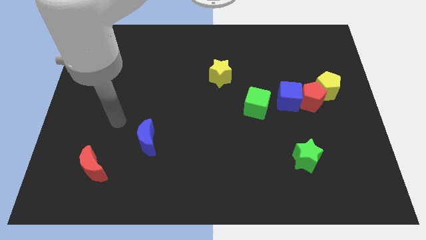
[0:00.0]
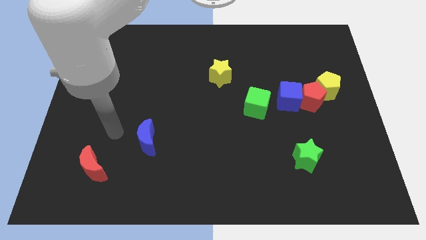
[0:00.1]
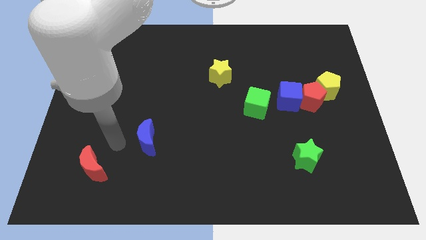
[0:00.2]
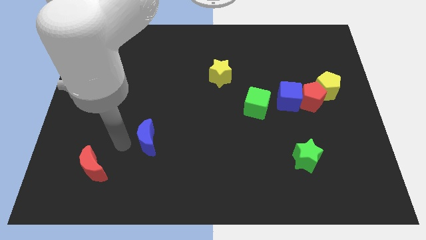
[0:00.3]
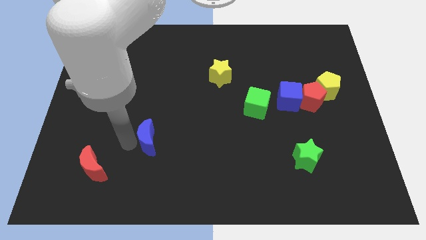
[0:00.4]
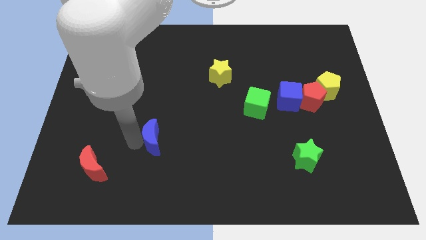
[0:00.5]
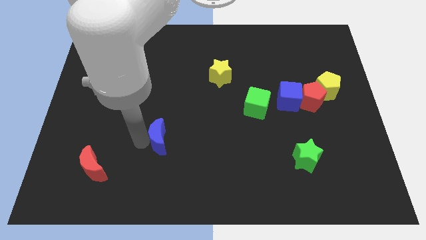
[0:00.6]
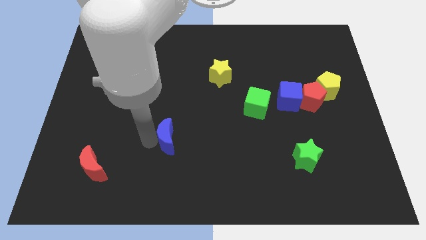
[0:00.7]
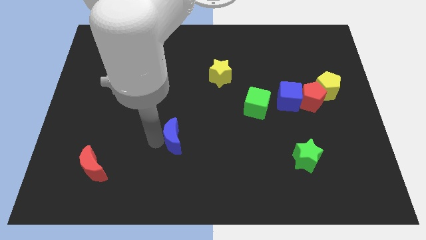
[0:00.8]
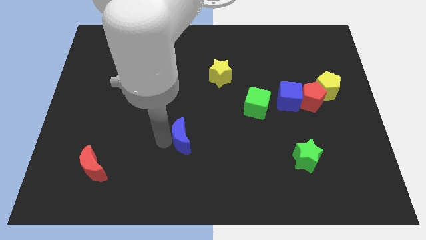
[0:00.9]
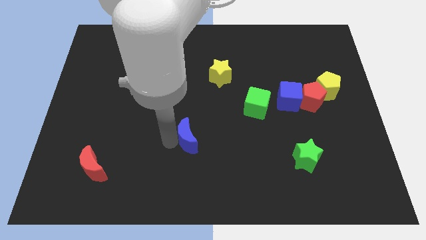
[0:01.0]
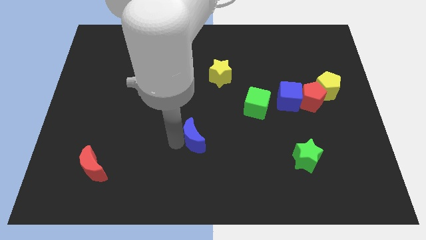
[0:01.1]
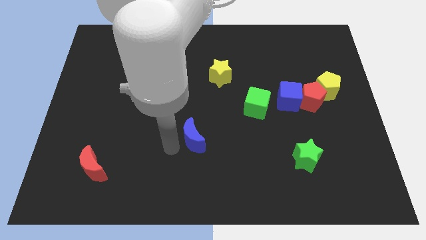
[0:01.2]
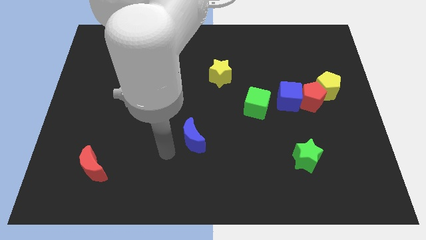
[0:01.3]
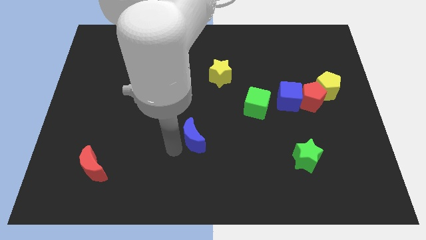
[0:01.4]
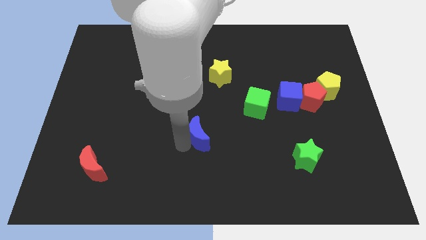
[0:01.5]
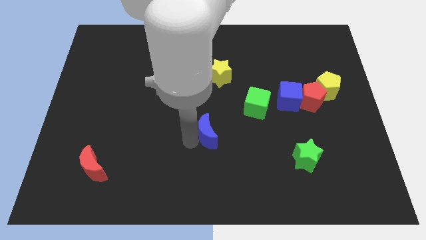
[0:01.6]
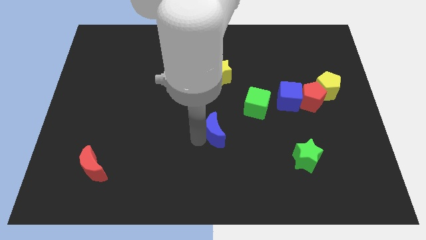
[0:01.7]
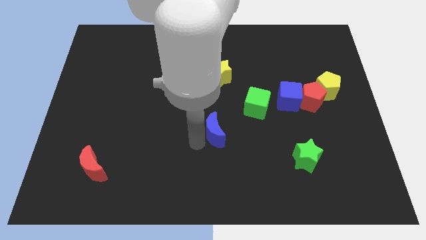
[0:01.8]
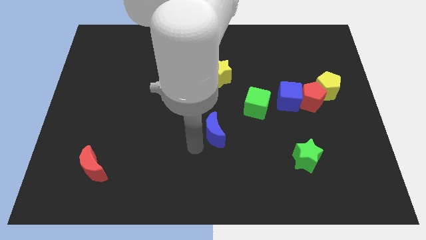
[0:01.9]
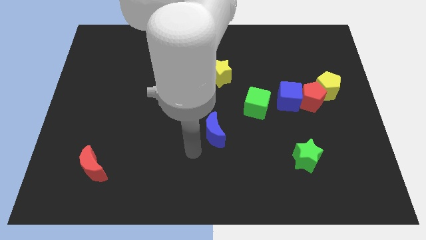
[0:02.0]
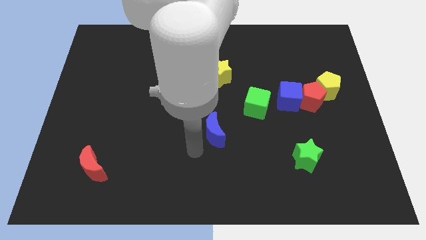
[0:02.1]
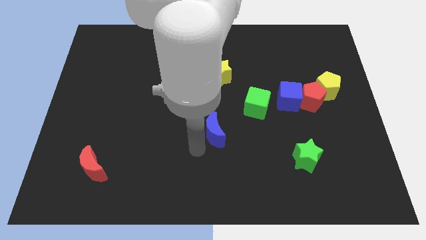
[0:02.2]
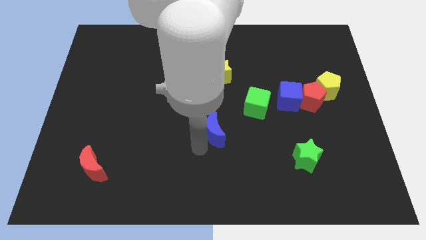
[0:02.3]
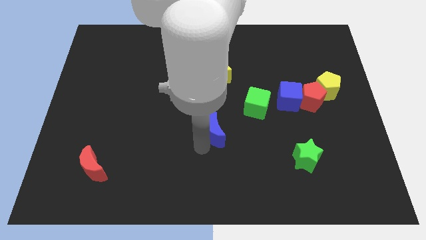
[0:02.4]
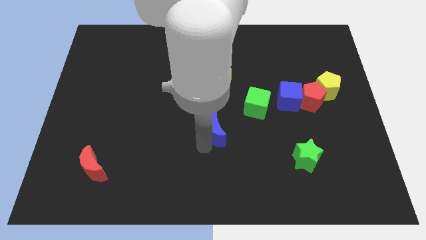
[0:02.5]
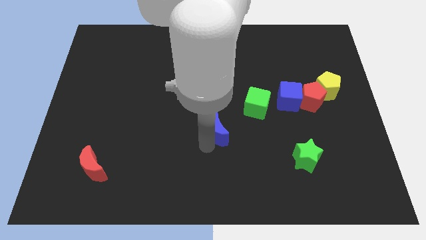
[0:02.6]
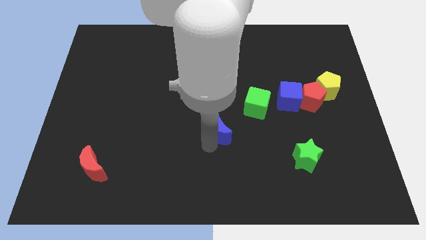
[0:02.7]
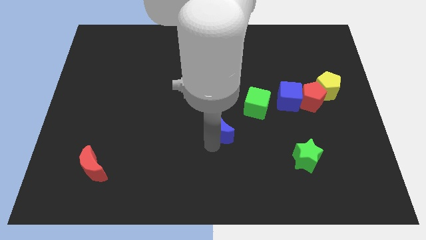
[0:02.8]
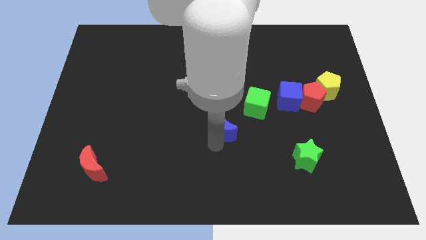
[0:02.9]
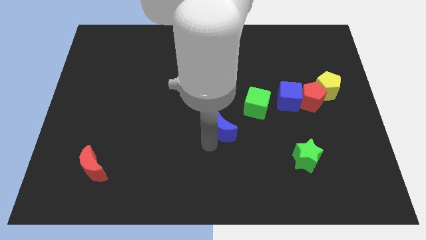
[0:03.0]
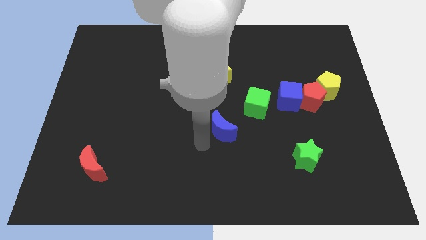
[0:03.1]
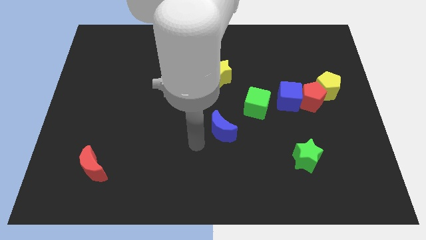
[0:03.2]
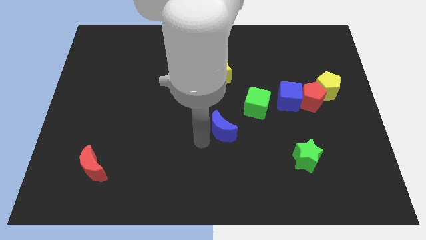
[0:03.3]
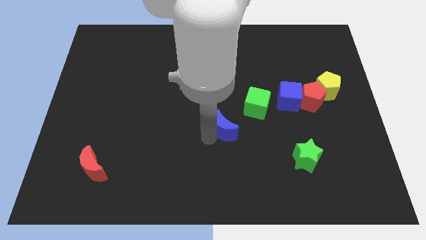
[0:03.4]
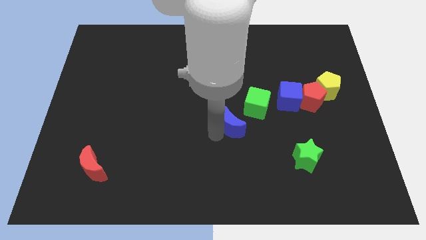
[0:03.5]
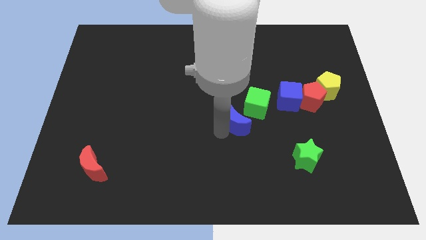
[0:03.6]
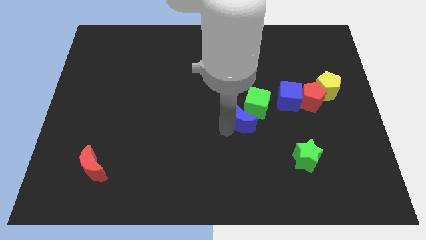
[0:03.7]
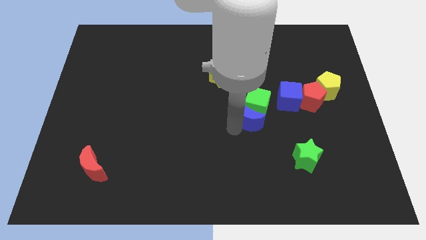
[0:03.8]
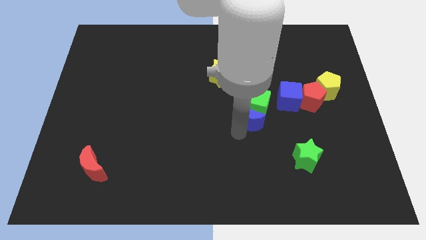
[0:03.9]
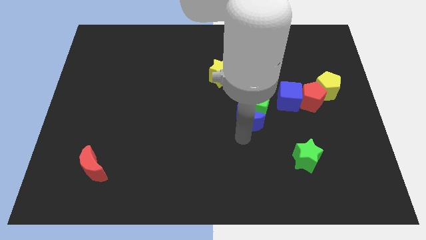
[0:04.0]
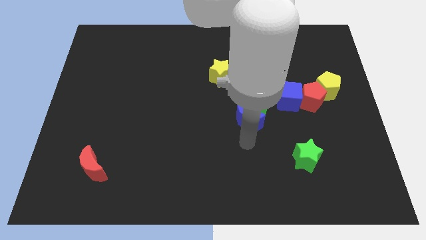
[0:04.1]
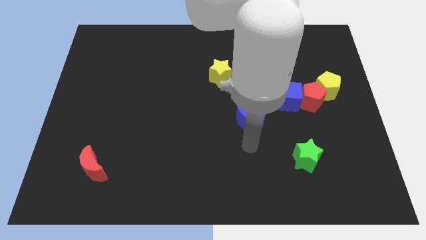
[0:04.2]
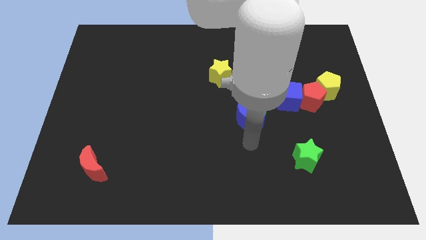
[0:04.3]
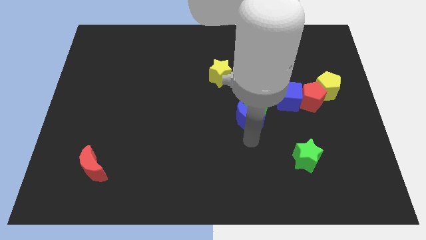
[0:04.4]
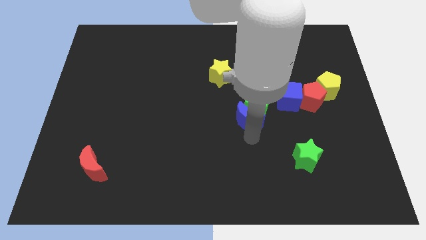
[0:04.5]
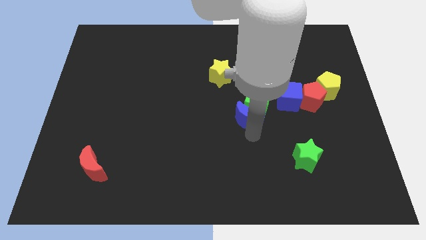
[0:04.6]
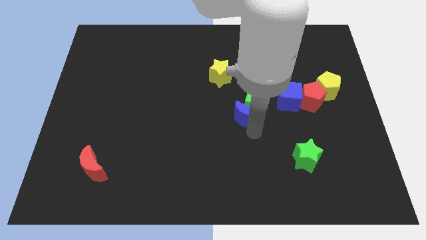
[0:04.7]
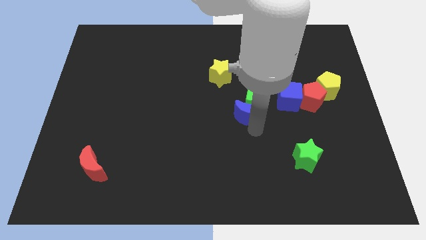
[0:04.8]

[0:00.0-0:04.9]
push the blue moon just left of the blue cube

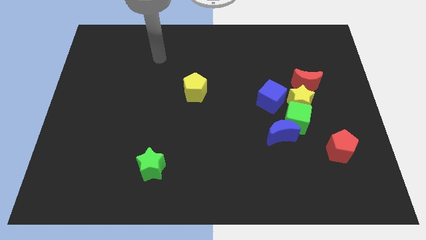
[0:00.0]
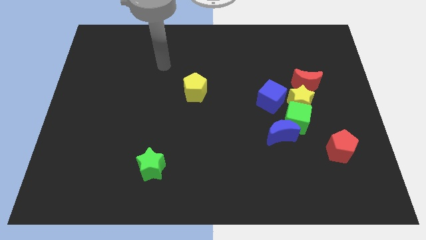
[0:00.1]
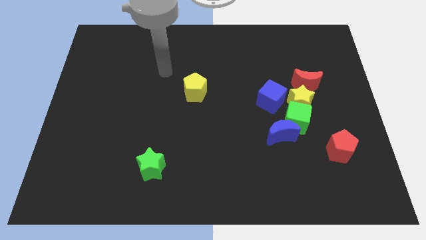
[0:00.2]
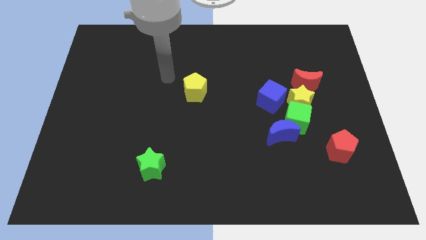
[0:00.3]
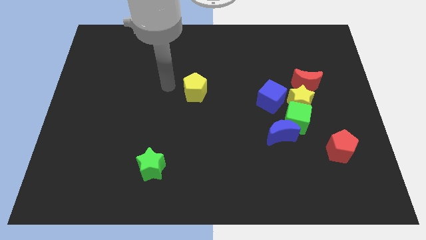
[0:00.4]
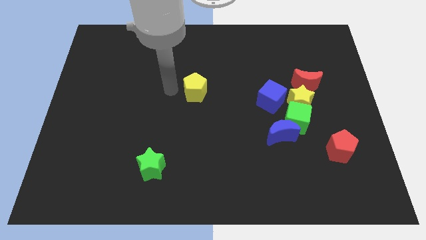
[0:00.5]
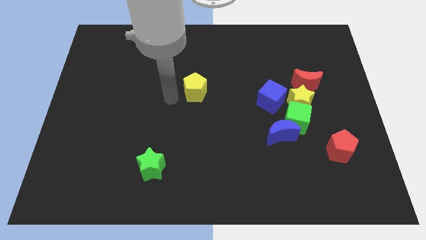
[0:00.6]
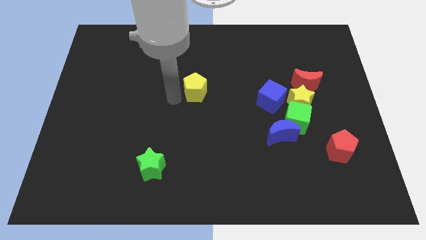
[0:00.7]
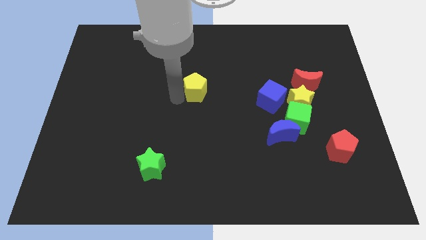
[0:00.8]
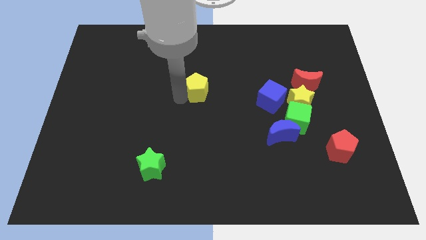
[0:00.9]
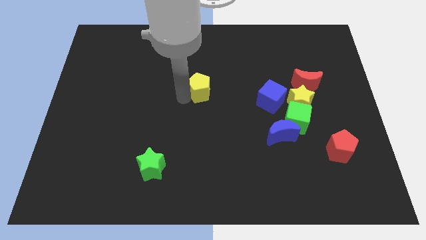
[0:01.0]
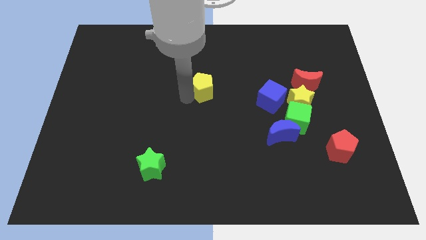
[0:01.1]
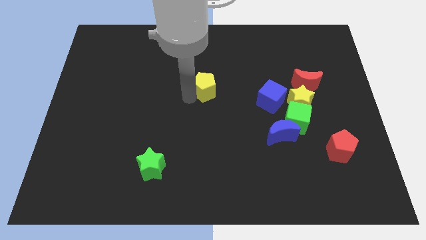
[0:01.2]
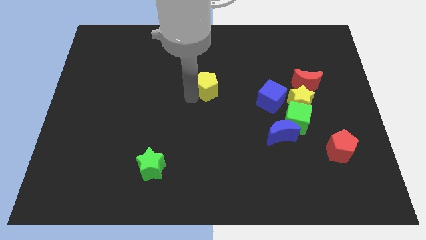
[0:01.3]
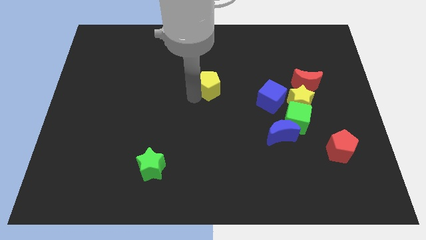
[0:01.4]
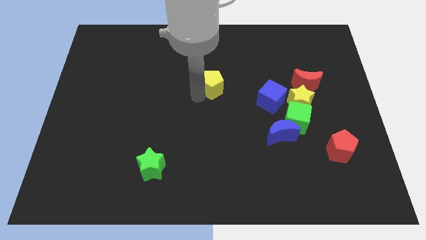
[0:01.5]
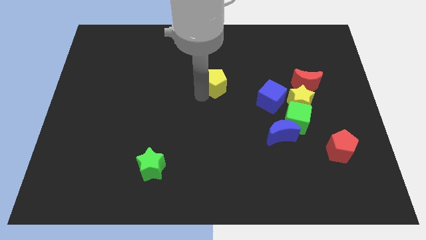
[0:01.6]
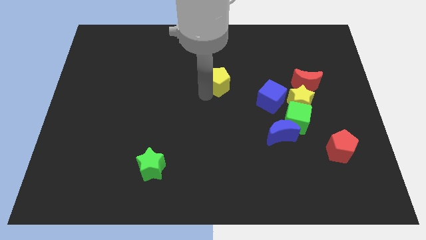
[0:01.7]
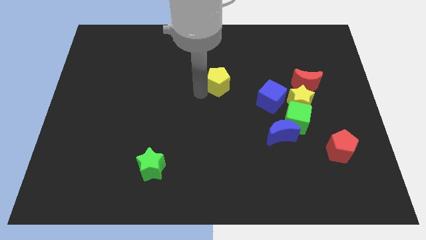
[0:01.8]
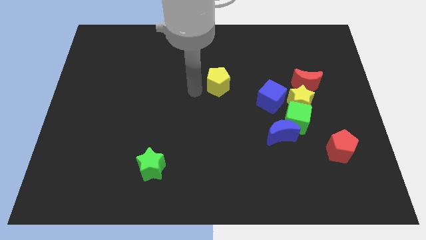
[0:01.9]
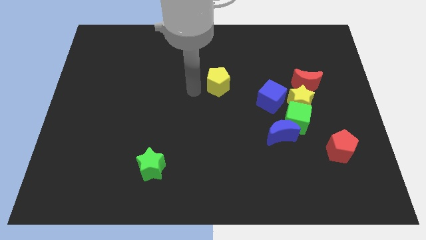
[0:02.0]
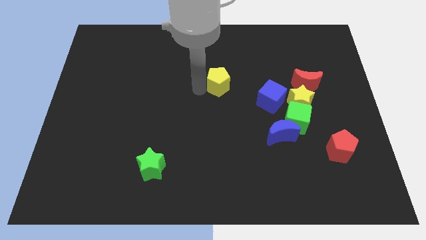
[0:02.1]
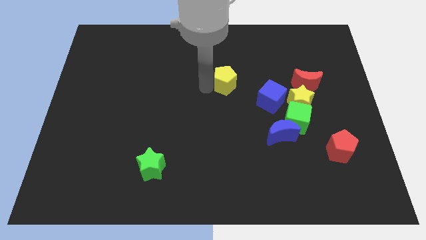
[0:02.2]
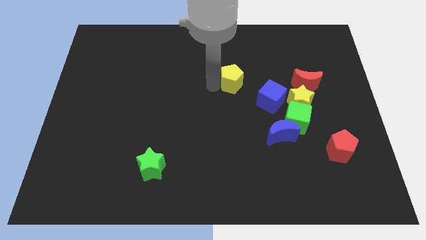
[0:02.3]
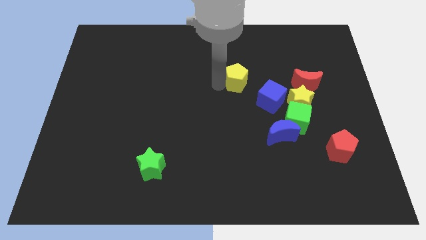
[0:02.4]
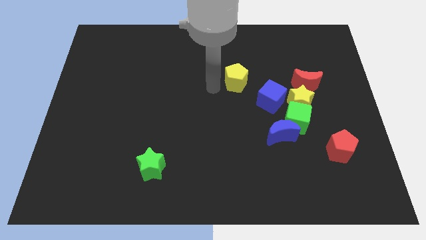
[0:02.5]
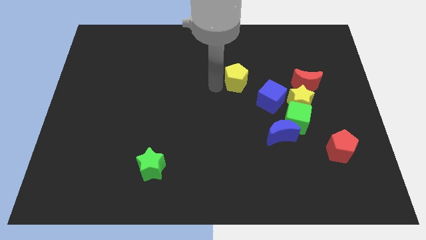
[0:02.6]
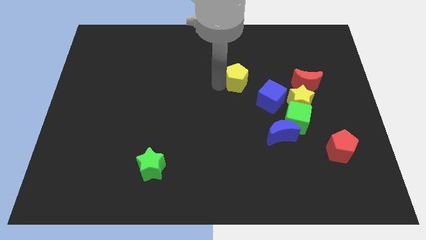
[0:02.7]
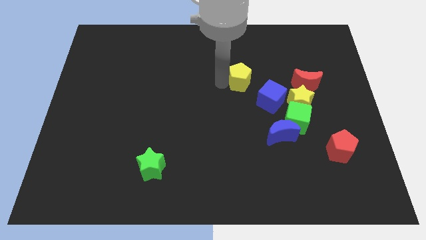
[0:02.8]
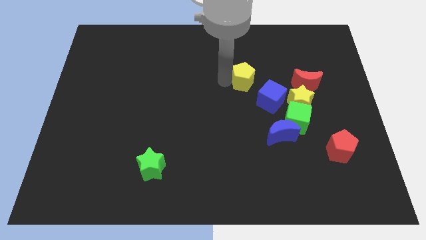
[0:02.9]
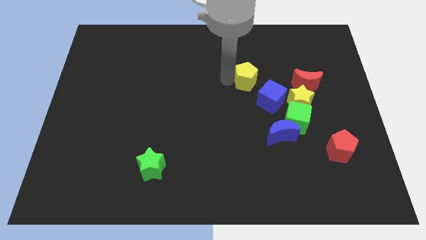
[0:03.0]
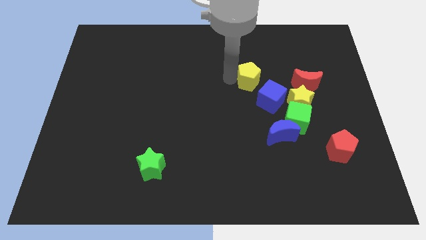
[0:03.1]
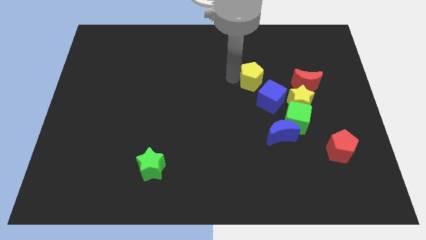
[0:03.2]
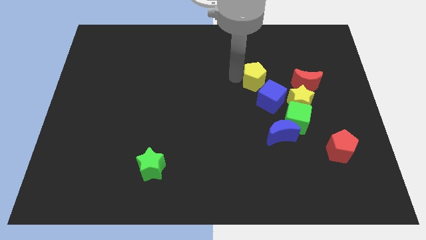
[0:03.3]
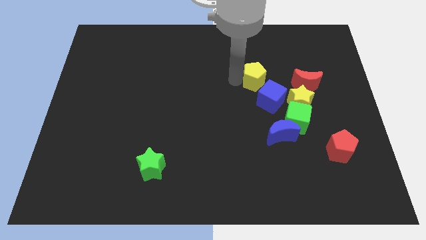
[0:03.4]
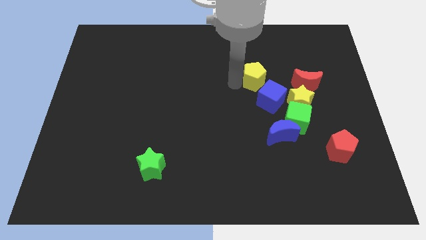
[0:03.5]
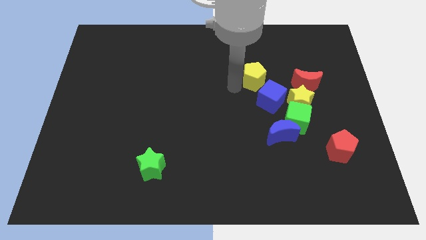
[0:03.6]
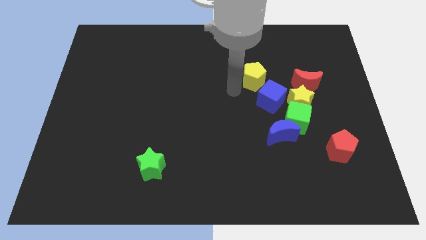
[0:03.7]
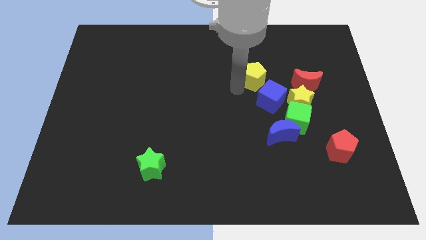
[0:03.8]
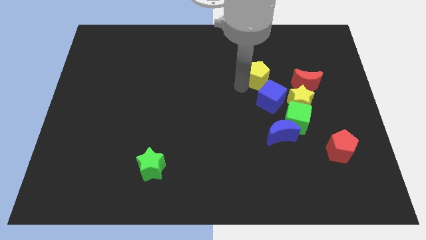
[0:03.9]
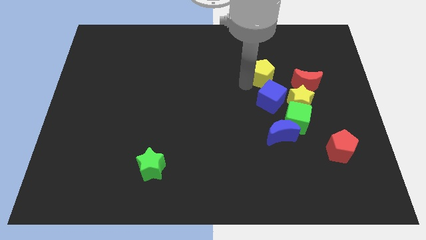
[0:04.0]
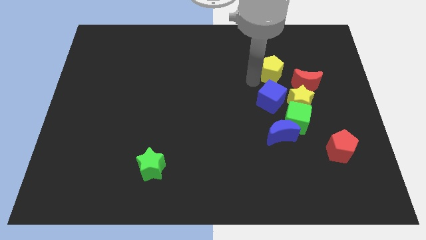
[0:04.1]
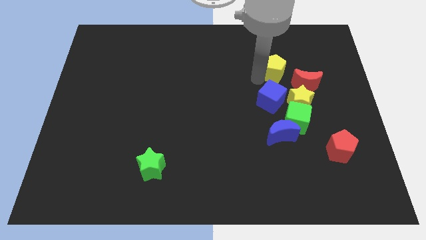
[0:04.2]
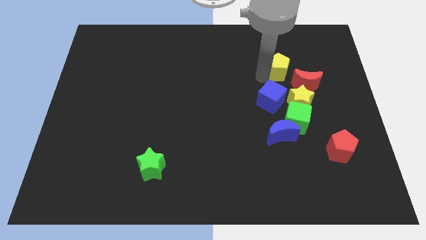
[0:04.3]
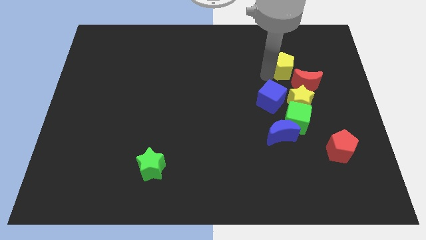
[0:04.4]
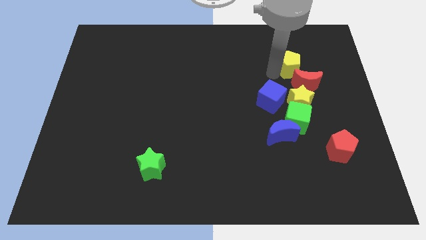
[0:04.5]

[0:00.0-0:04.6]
push the yellow pentagon to the top of the red moon
